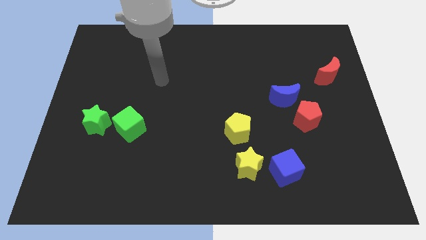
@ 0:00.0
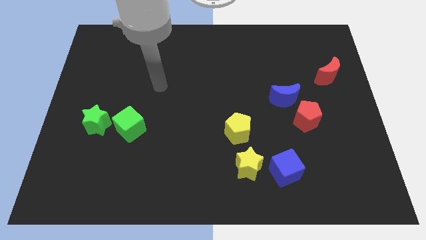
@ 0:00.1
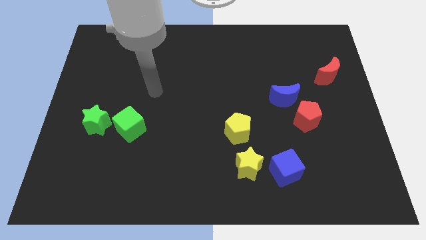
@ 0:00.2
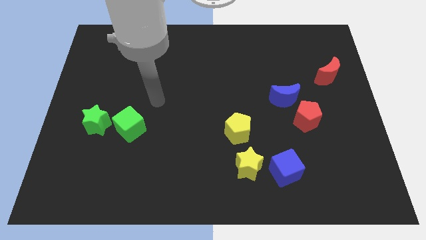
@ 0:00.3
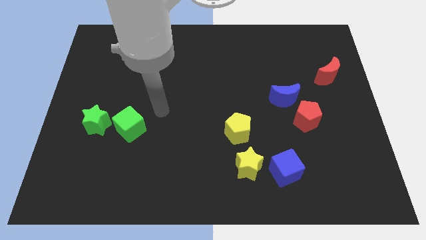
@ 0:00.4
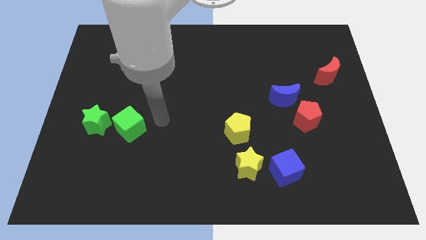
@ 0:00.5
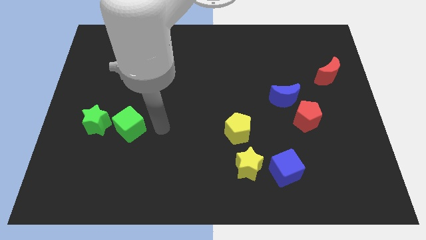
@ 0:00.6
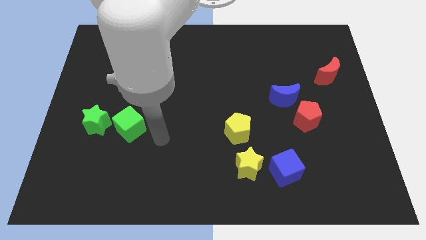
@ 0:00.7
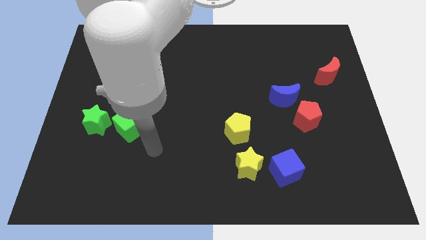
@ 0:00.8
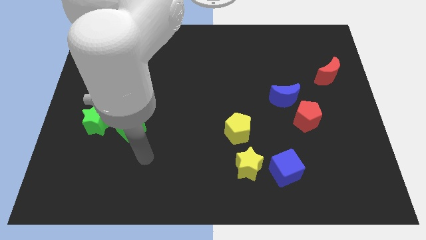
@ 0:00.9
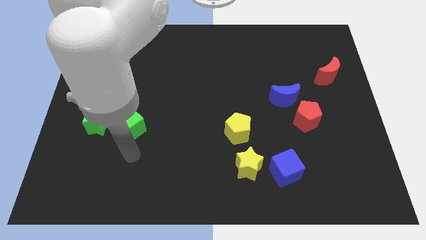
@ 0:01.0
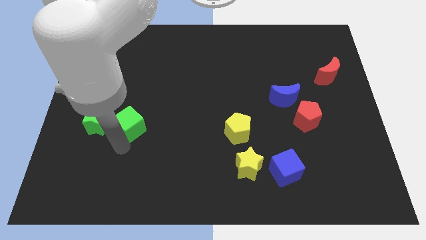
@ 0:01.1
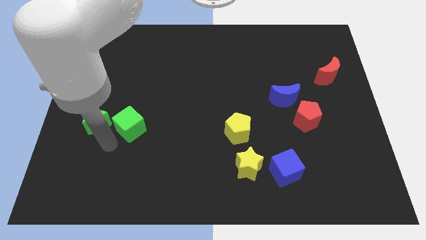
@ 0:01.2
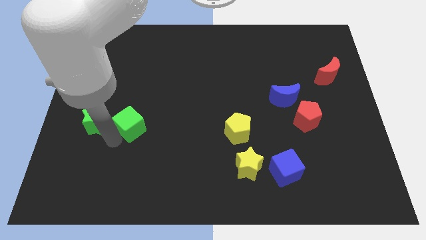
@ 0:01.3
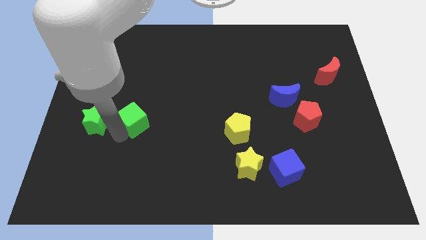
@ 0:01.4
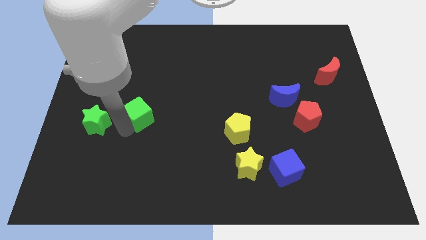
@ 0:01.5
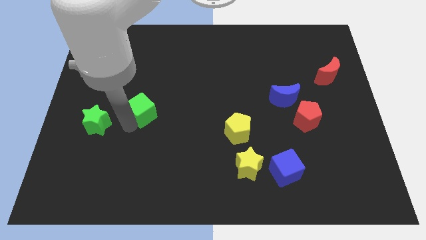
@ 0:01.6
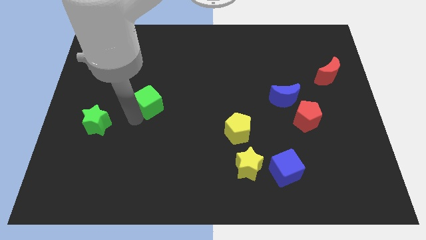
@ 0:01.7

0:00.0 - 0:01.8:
slide the green cube slightly diagonally upwards and to the right

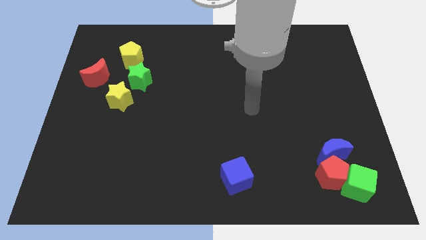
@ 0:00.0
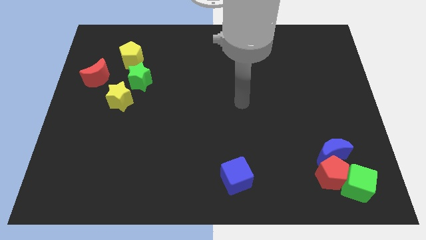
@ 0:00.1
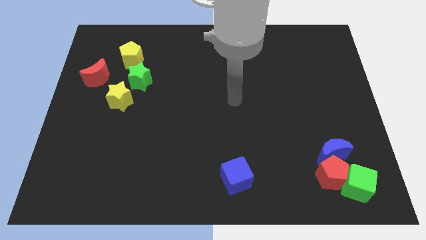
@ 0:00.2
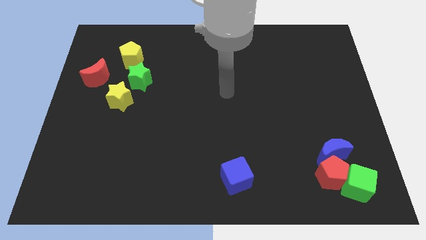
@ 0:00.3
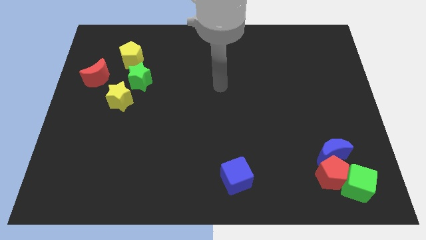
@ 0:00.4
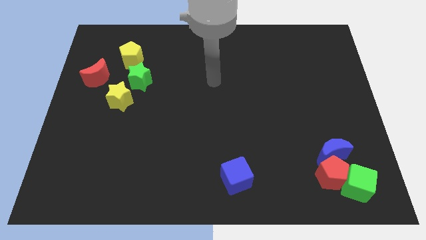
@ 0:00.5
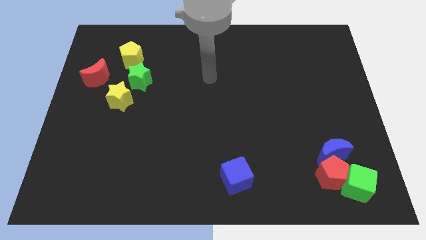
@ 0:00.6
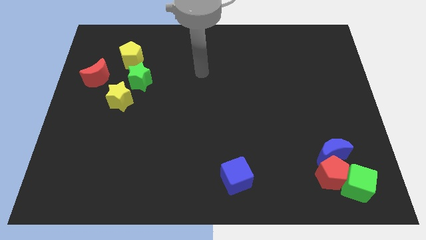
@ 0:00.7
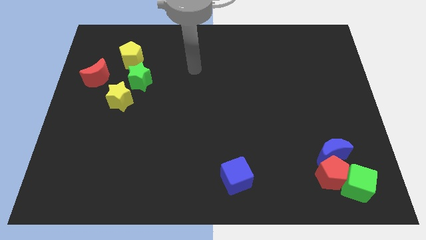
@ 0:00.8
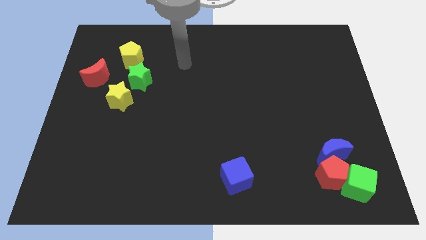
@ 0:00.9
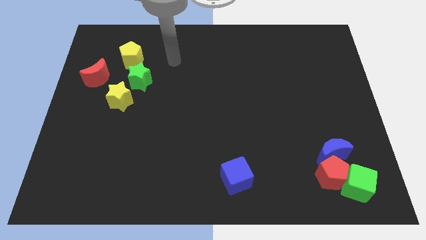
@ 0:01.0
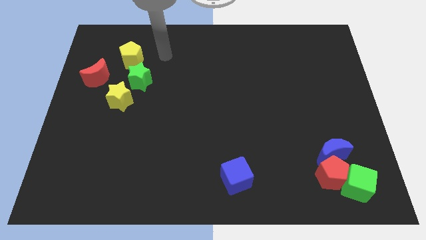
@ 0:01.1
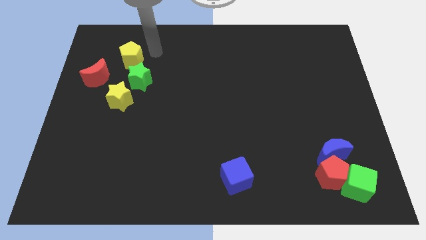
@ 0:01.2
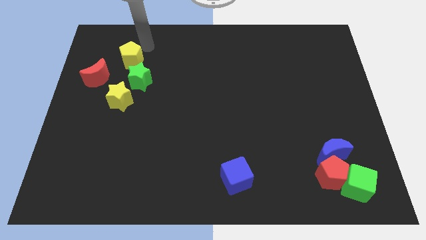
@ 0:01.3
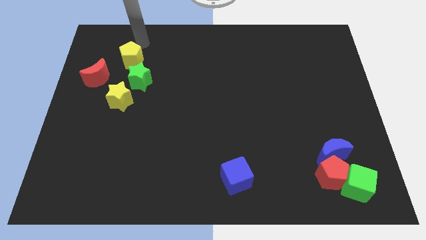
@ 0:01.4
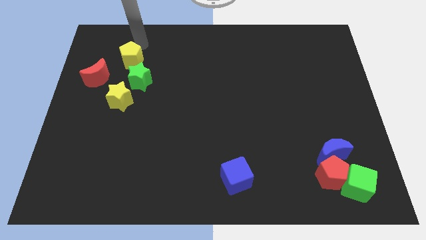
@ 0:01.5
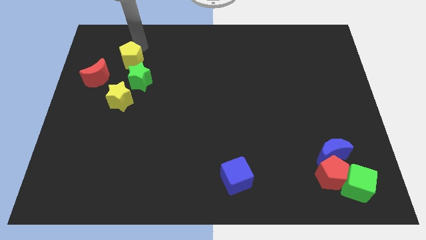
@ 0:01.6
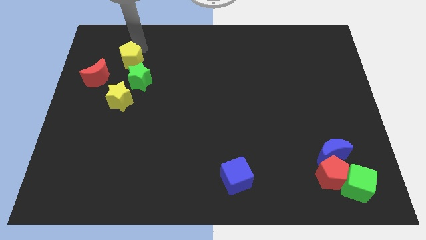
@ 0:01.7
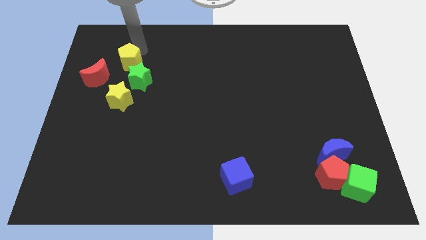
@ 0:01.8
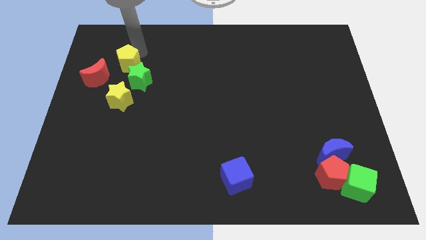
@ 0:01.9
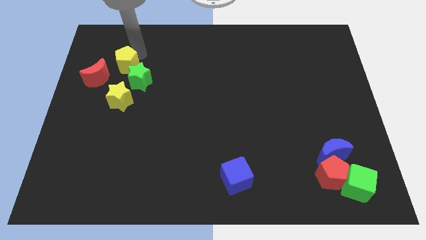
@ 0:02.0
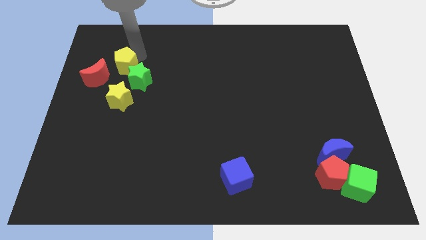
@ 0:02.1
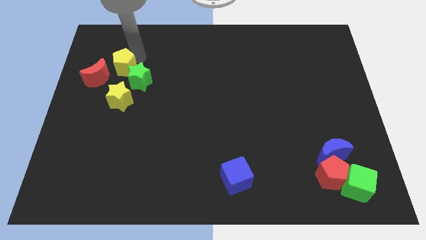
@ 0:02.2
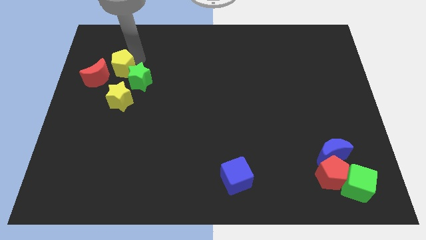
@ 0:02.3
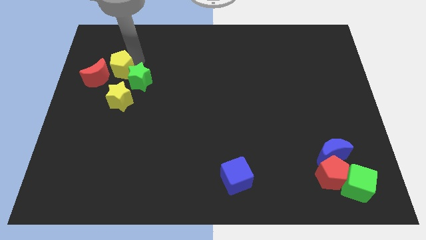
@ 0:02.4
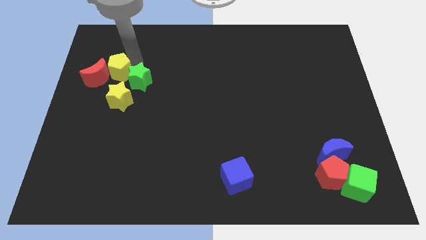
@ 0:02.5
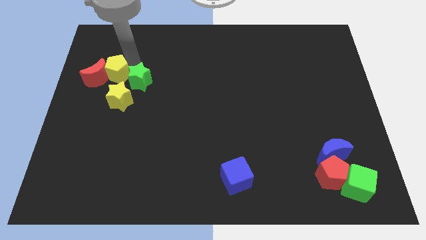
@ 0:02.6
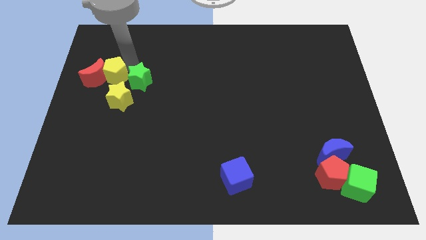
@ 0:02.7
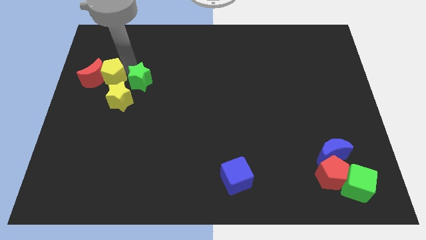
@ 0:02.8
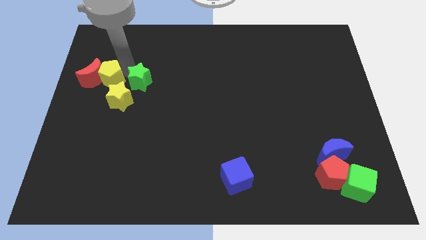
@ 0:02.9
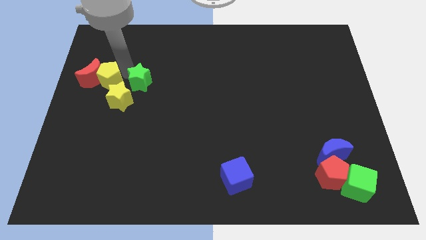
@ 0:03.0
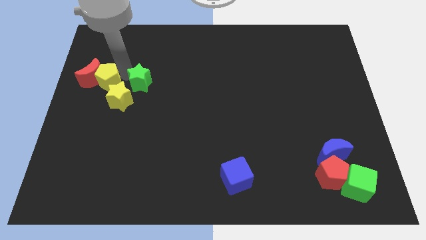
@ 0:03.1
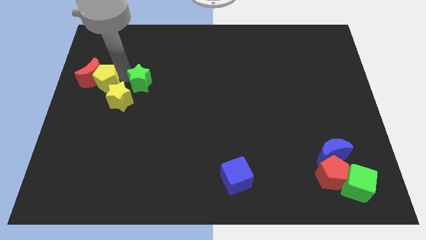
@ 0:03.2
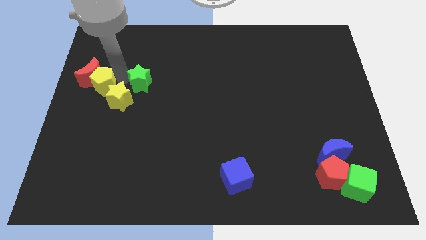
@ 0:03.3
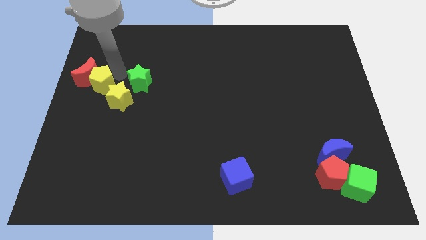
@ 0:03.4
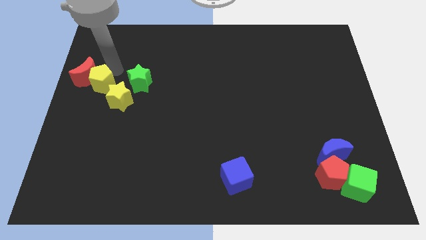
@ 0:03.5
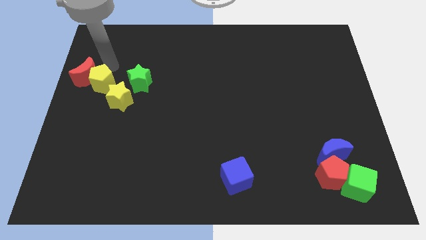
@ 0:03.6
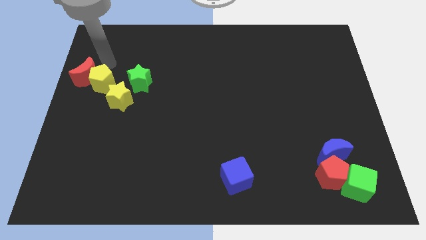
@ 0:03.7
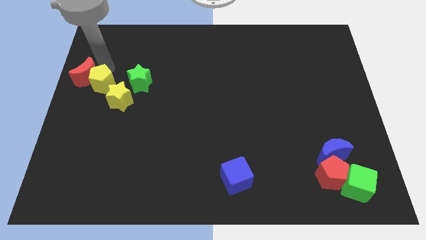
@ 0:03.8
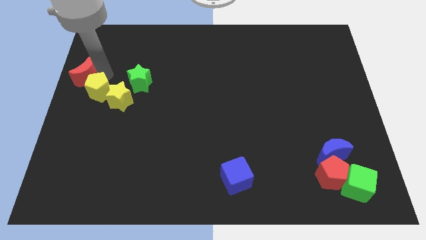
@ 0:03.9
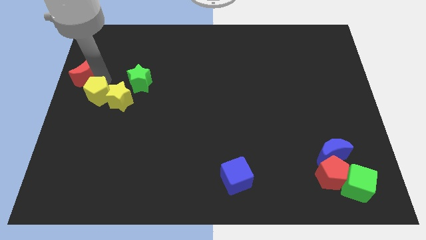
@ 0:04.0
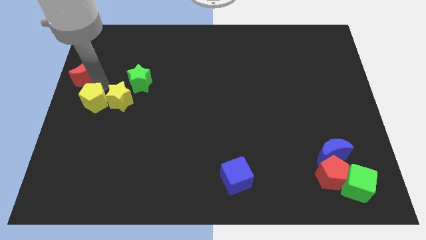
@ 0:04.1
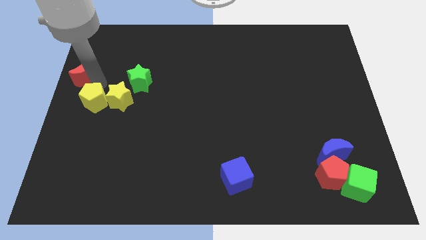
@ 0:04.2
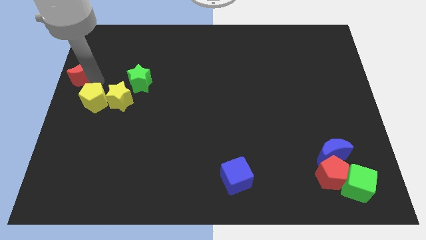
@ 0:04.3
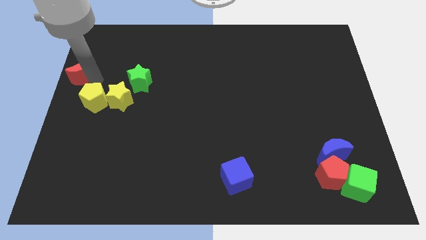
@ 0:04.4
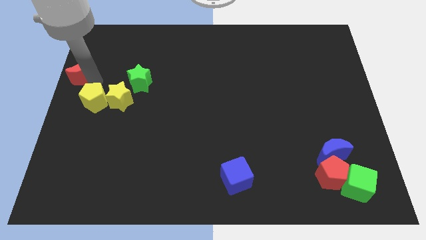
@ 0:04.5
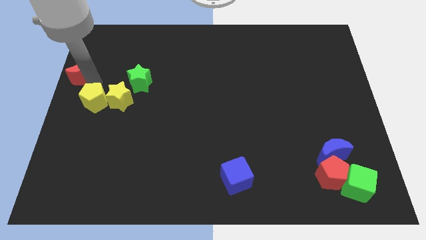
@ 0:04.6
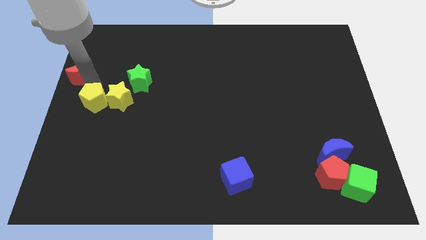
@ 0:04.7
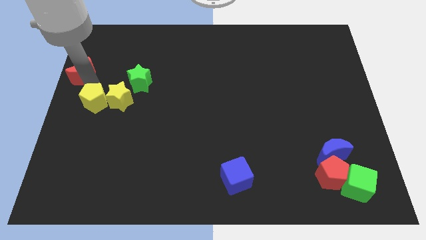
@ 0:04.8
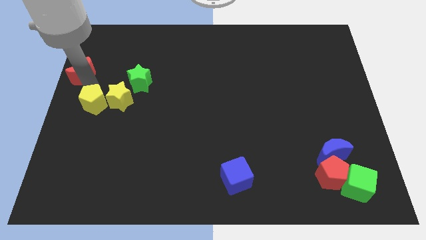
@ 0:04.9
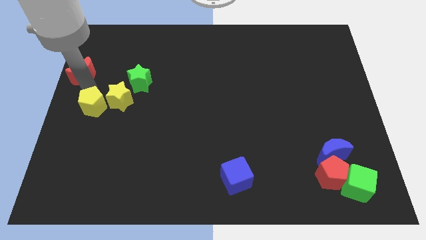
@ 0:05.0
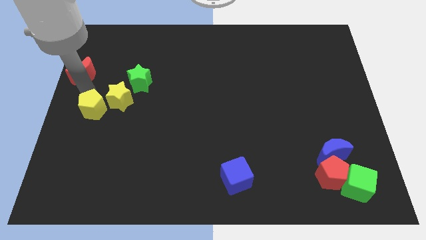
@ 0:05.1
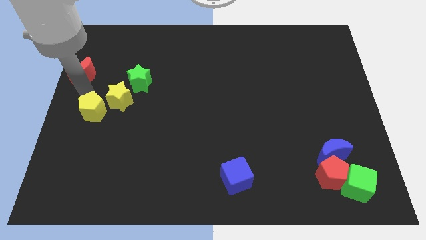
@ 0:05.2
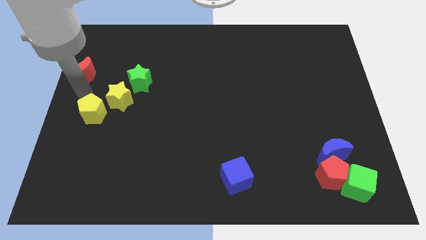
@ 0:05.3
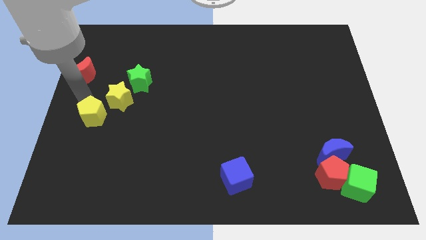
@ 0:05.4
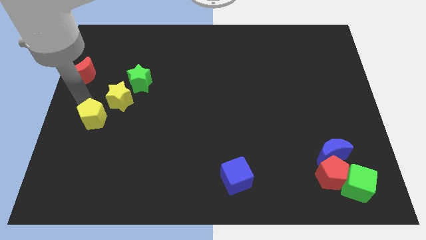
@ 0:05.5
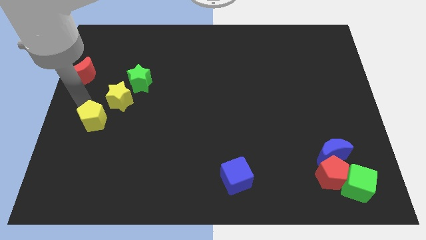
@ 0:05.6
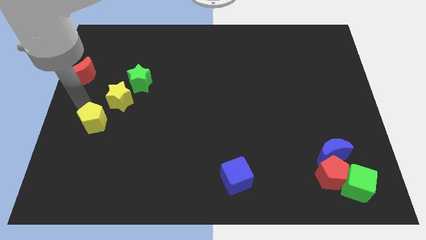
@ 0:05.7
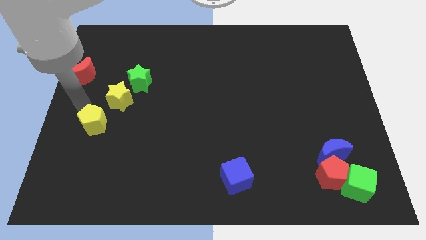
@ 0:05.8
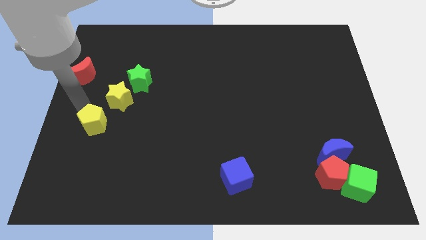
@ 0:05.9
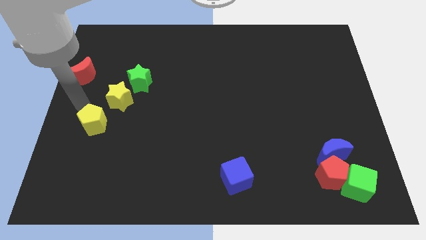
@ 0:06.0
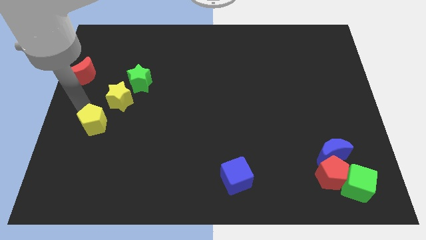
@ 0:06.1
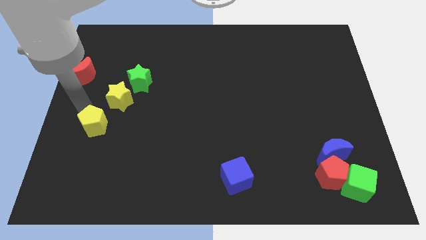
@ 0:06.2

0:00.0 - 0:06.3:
move the yellow pentagon down
